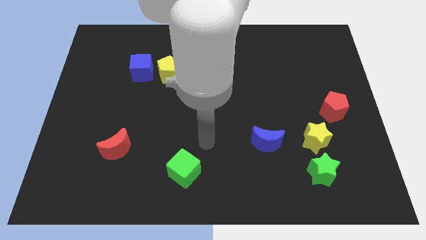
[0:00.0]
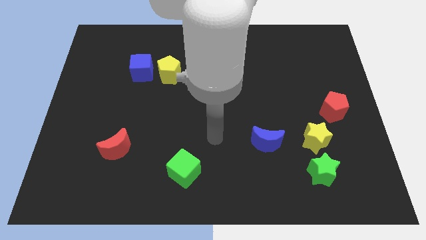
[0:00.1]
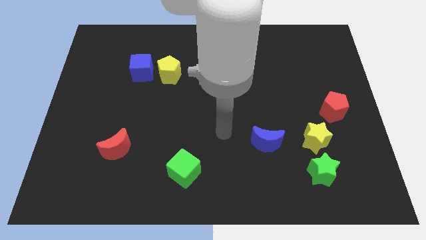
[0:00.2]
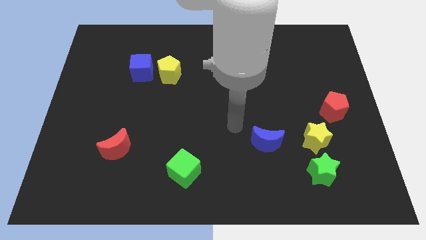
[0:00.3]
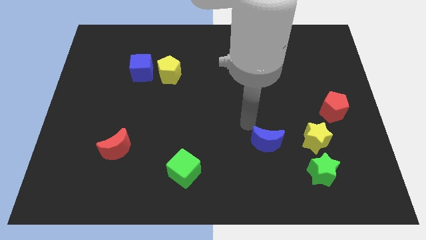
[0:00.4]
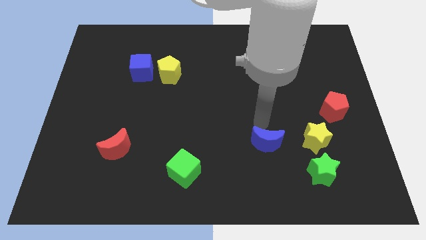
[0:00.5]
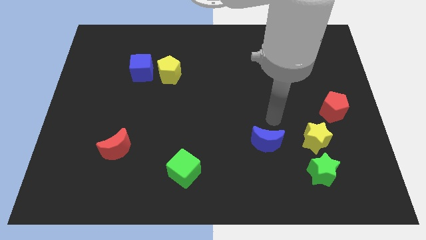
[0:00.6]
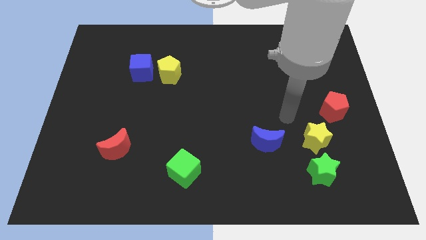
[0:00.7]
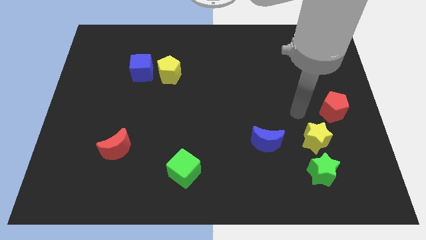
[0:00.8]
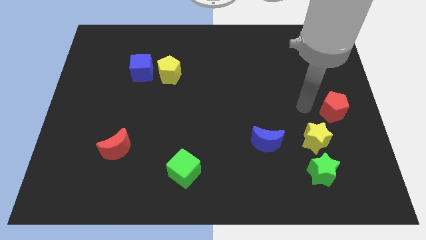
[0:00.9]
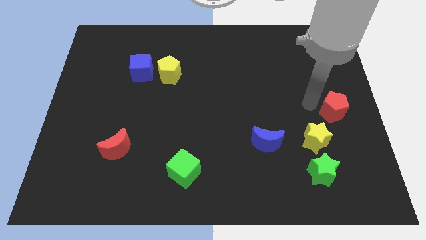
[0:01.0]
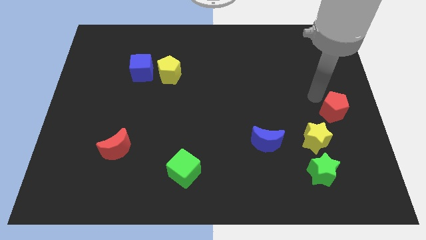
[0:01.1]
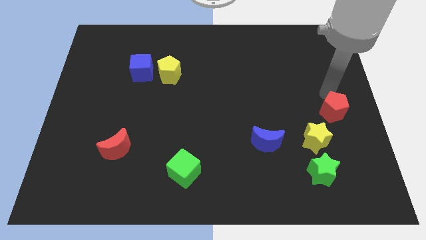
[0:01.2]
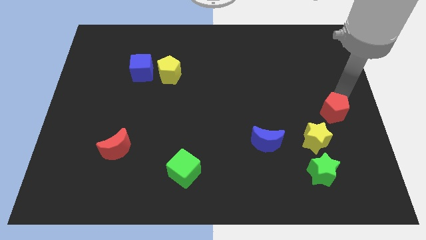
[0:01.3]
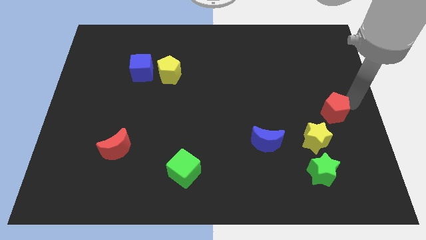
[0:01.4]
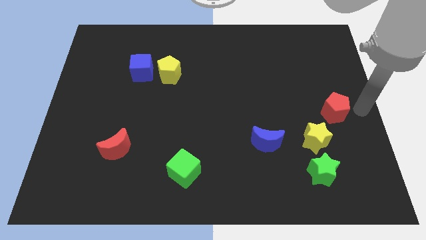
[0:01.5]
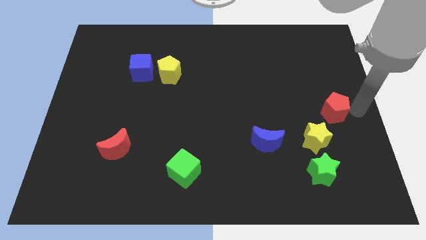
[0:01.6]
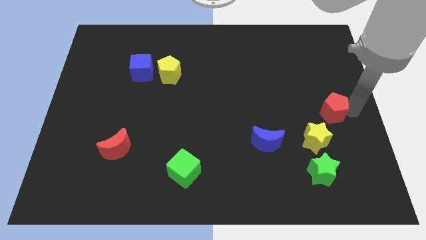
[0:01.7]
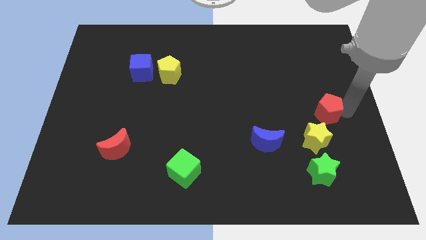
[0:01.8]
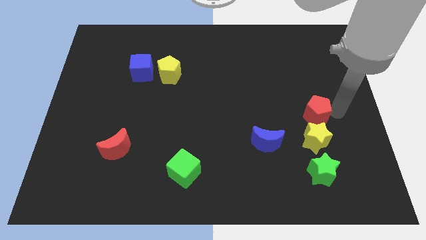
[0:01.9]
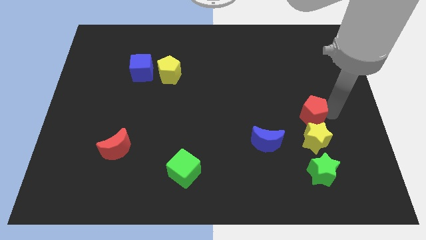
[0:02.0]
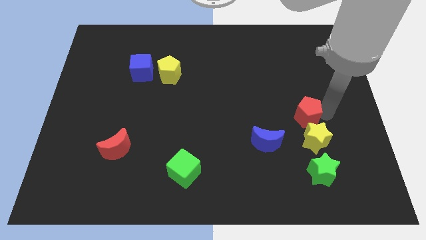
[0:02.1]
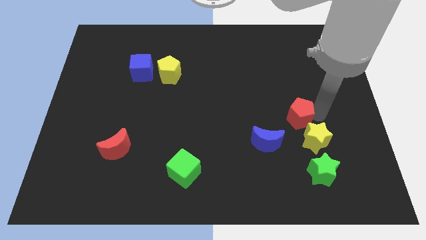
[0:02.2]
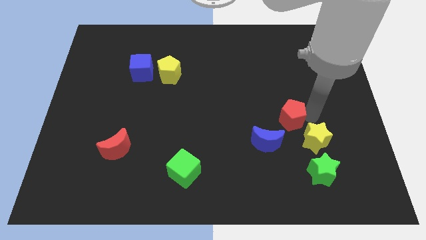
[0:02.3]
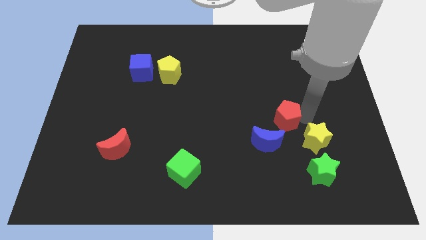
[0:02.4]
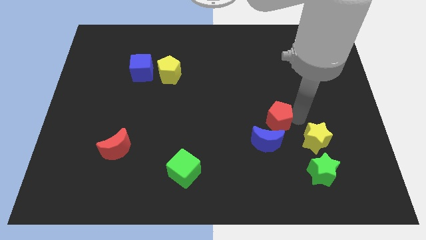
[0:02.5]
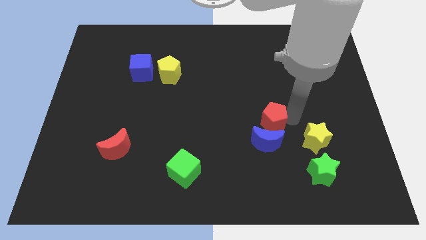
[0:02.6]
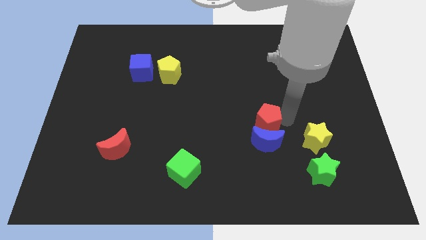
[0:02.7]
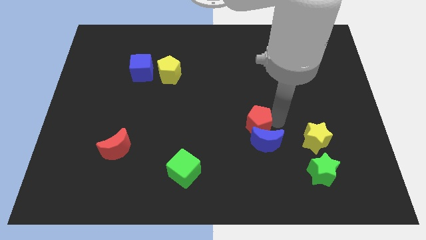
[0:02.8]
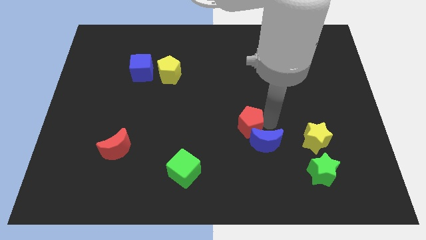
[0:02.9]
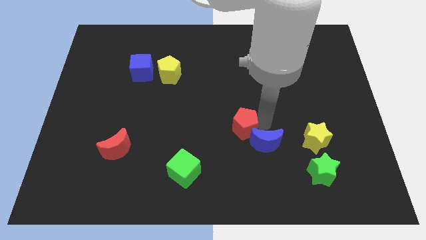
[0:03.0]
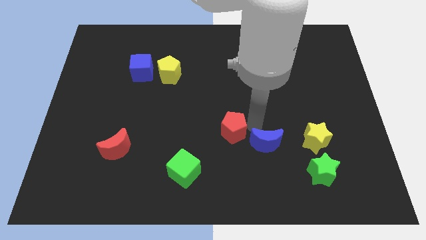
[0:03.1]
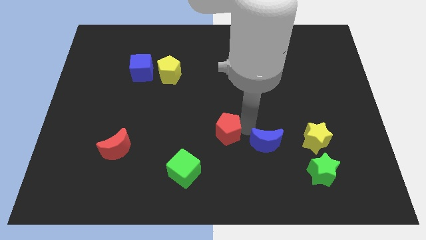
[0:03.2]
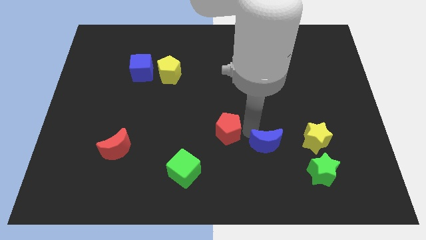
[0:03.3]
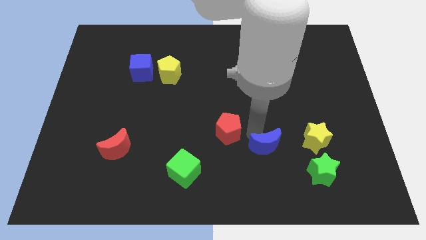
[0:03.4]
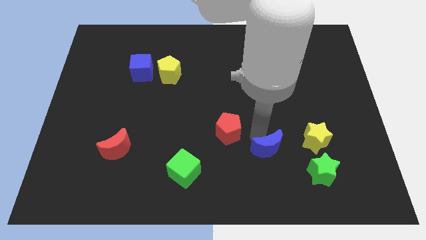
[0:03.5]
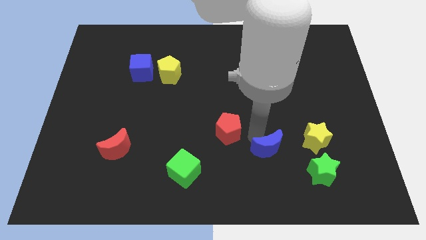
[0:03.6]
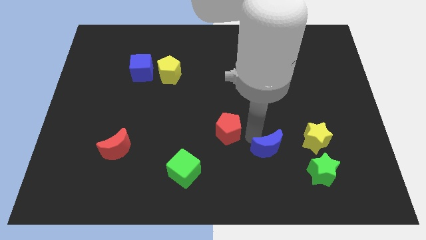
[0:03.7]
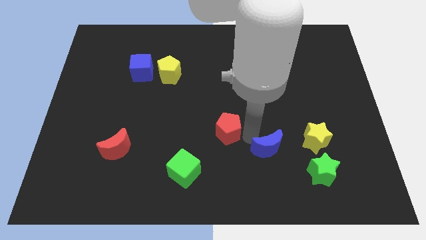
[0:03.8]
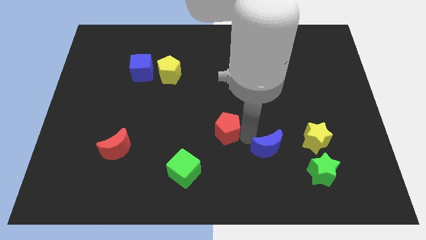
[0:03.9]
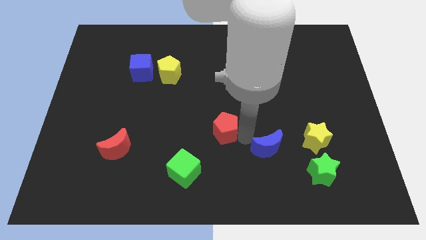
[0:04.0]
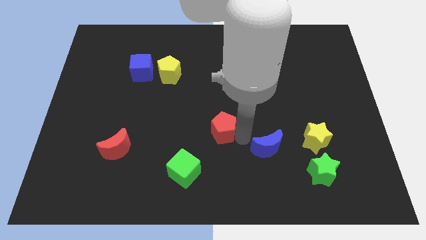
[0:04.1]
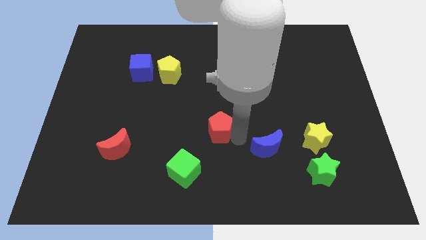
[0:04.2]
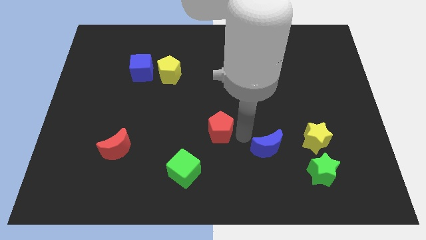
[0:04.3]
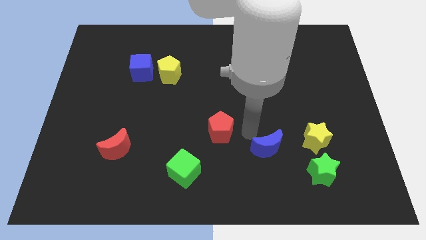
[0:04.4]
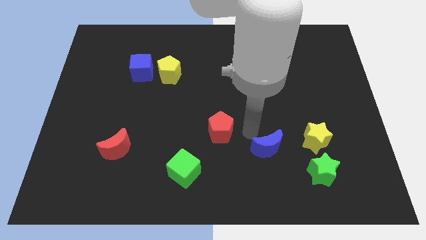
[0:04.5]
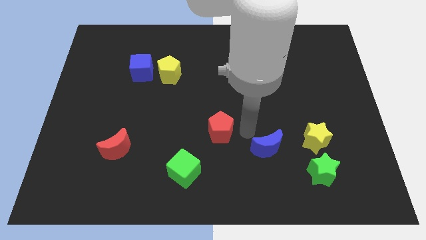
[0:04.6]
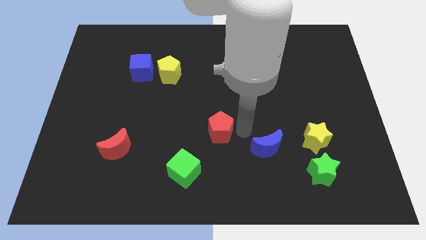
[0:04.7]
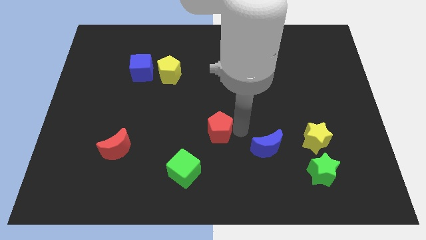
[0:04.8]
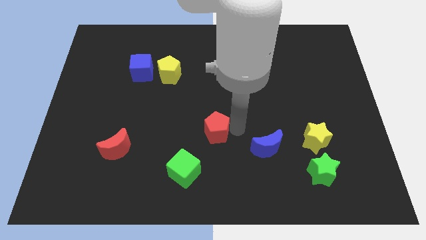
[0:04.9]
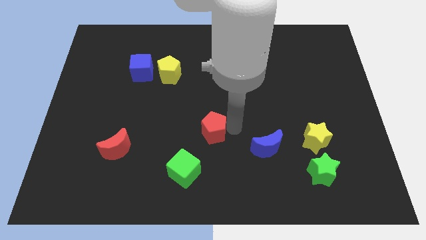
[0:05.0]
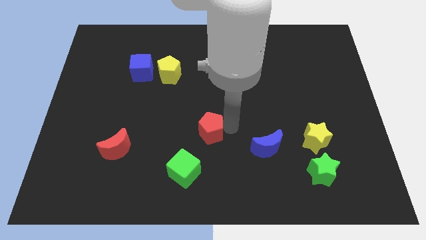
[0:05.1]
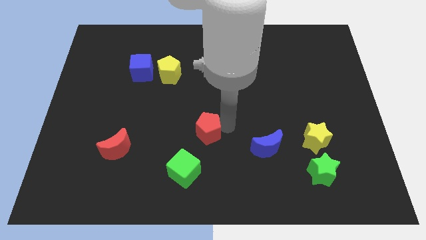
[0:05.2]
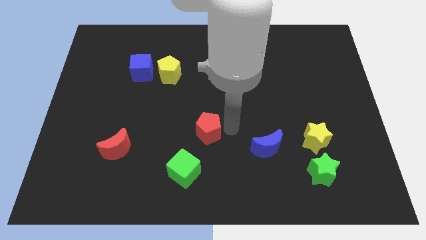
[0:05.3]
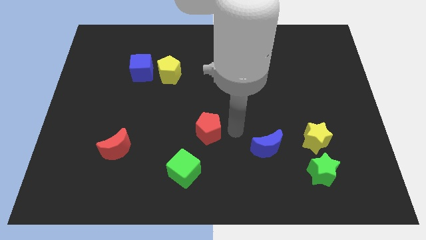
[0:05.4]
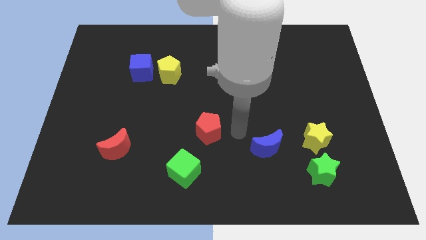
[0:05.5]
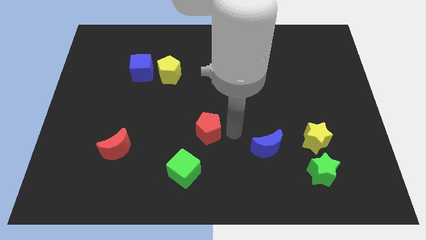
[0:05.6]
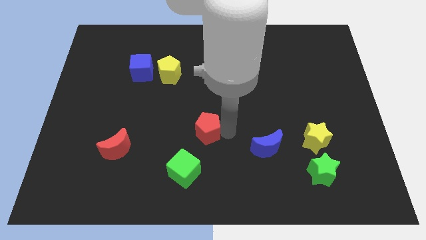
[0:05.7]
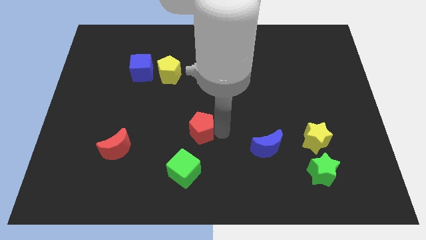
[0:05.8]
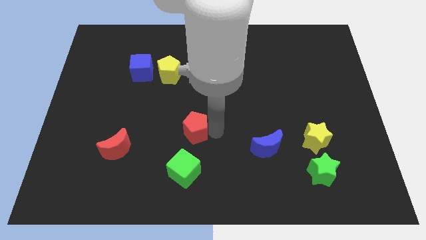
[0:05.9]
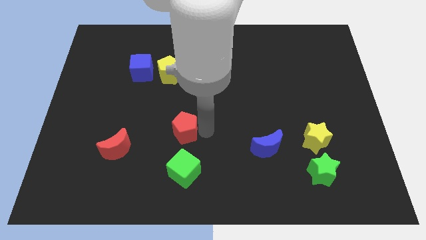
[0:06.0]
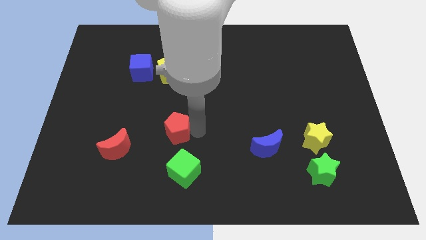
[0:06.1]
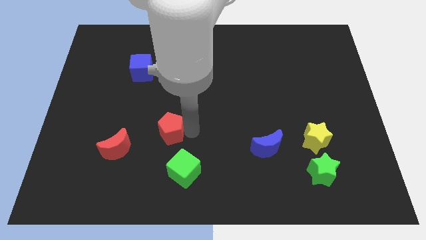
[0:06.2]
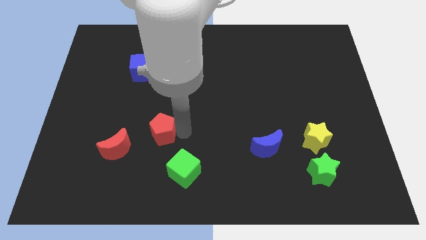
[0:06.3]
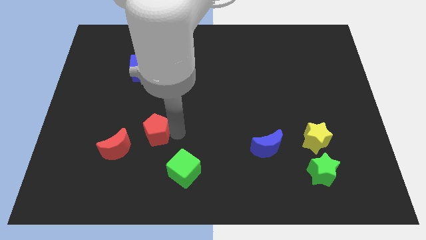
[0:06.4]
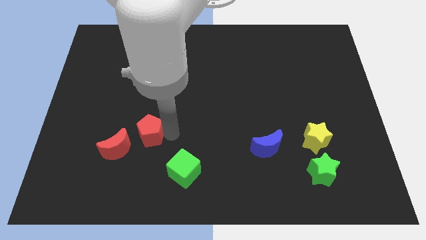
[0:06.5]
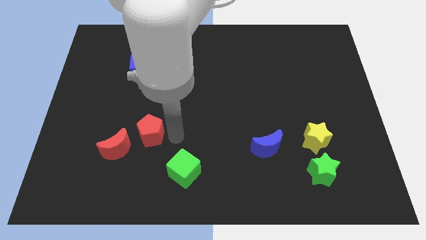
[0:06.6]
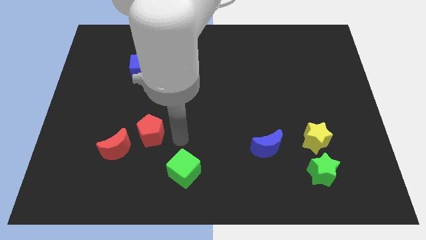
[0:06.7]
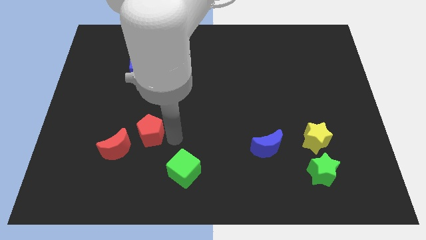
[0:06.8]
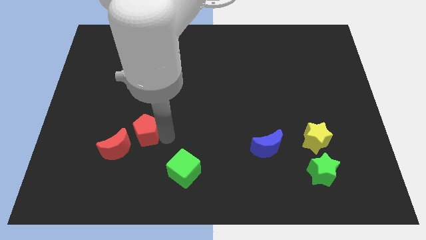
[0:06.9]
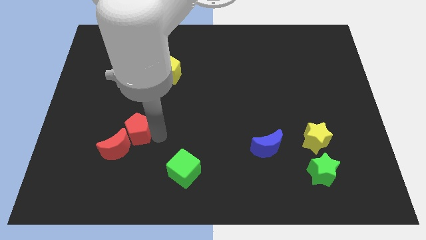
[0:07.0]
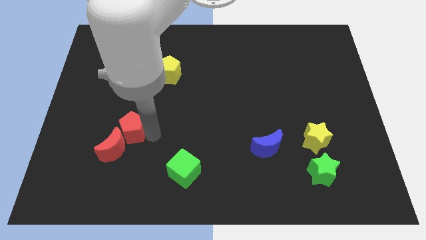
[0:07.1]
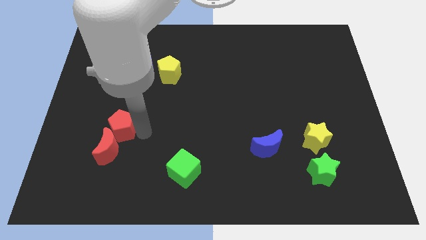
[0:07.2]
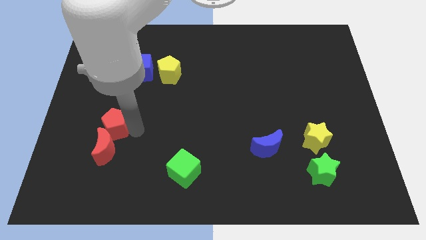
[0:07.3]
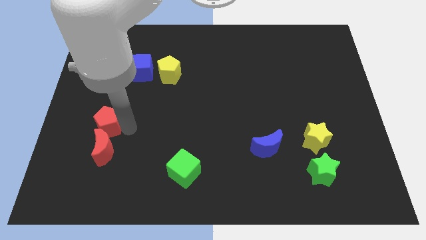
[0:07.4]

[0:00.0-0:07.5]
put the red pentagon to the top left of the red moon

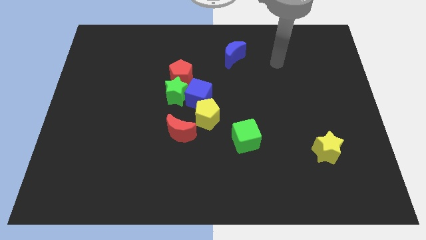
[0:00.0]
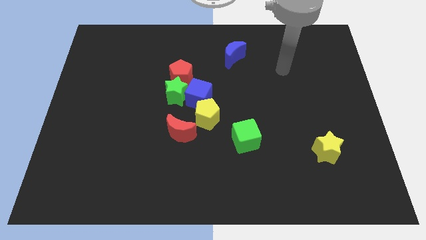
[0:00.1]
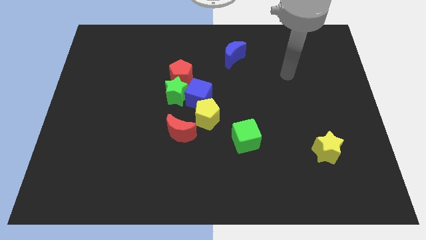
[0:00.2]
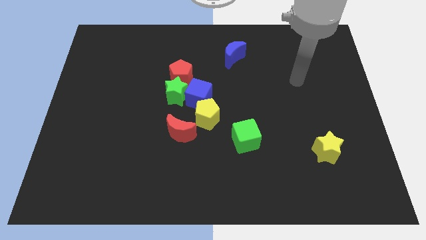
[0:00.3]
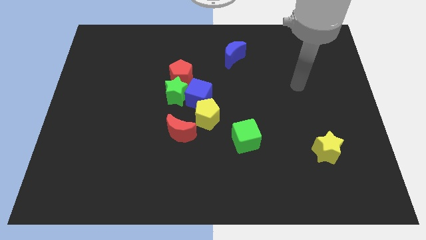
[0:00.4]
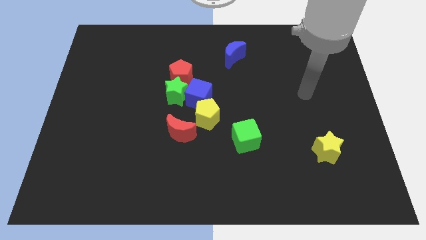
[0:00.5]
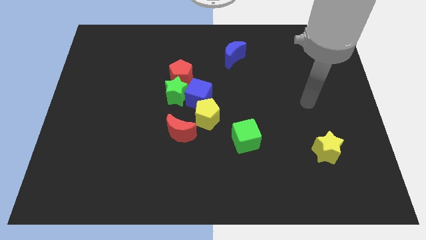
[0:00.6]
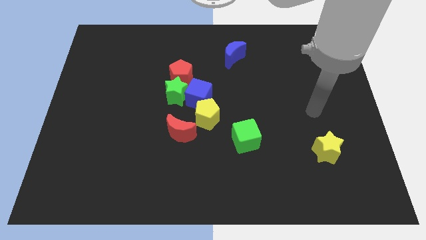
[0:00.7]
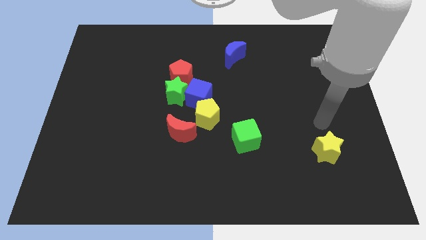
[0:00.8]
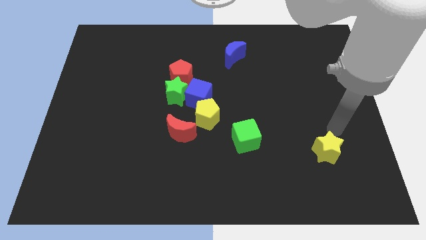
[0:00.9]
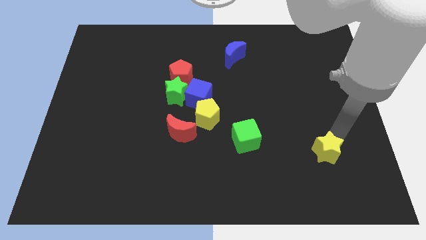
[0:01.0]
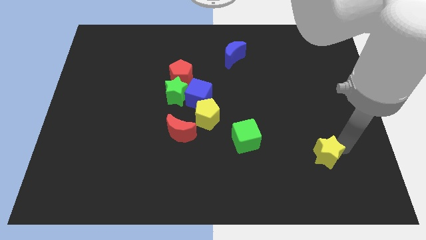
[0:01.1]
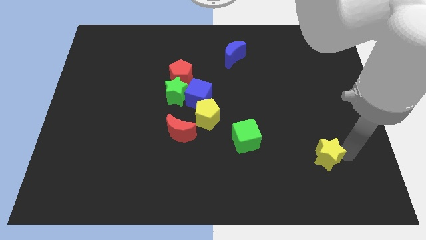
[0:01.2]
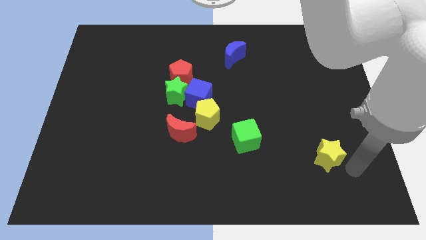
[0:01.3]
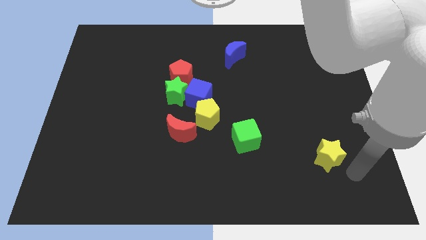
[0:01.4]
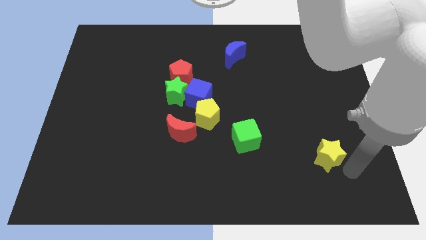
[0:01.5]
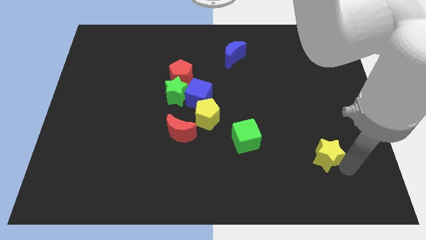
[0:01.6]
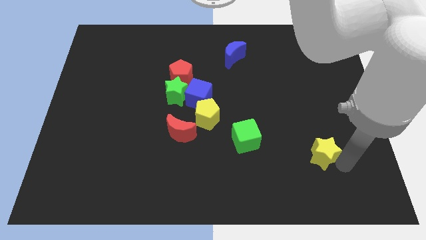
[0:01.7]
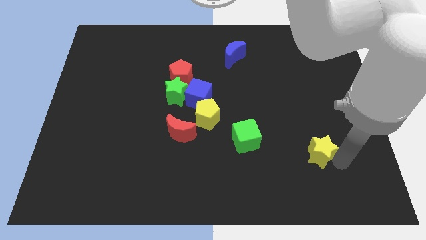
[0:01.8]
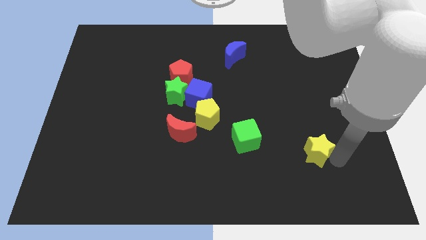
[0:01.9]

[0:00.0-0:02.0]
put the yellow star just right of the green cube
